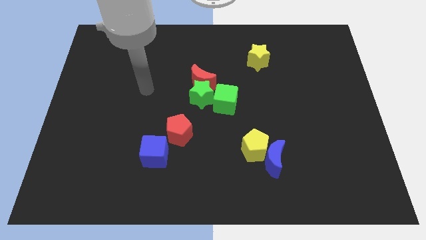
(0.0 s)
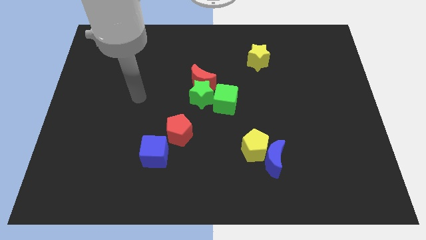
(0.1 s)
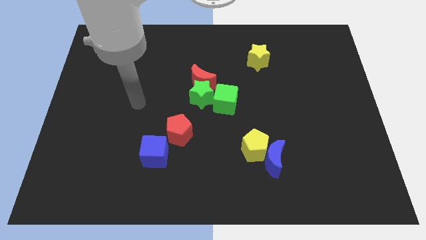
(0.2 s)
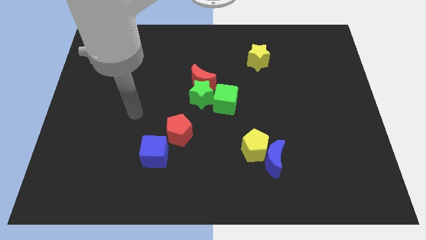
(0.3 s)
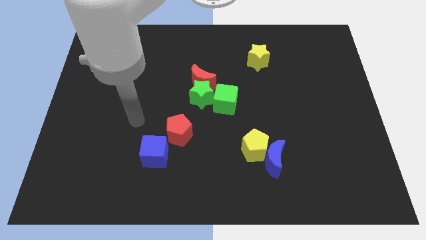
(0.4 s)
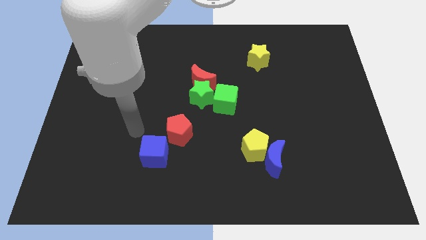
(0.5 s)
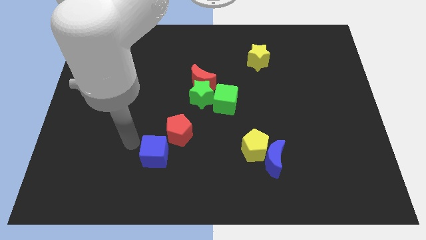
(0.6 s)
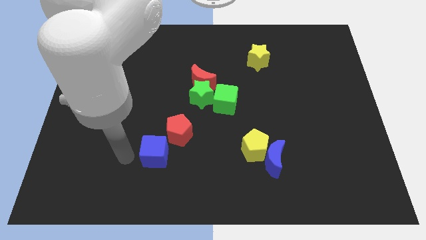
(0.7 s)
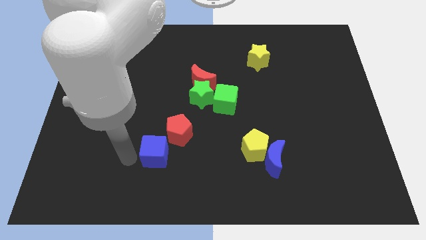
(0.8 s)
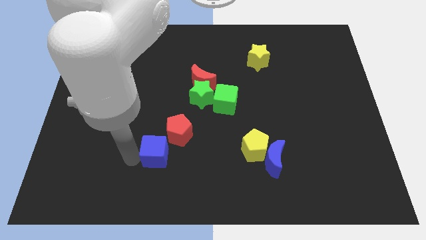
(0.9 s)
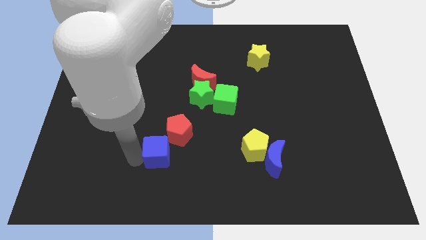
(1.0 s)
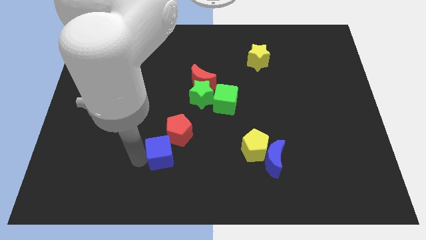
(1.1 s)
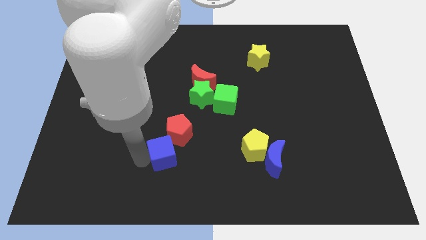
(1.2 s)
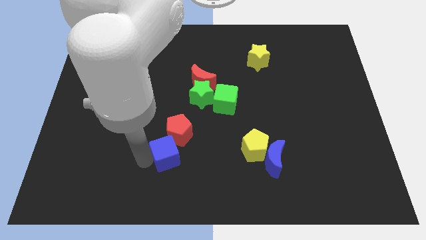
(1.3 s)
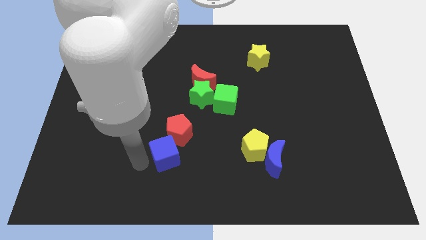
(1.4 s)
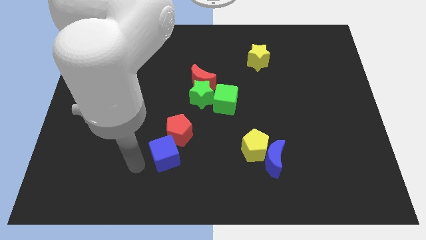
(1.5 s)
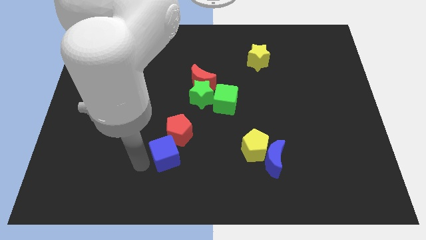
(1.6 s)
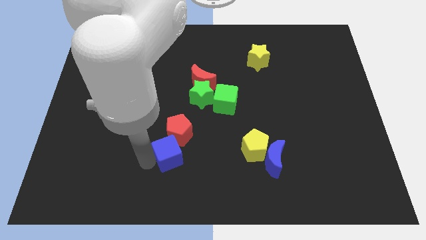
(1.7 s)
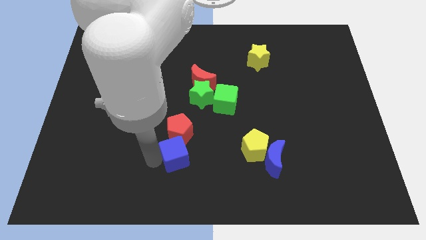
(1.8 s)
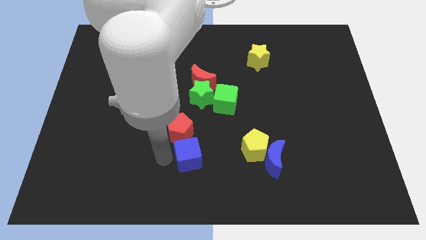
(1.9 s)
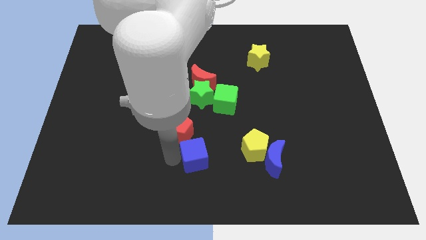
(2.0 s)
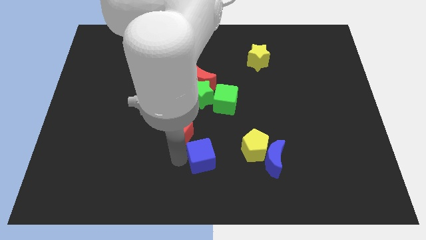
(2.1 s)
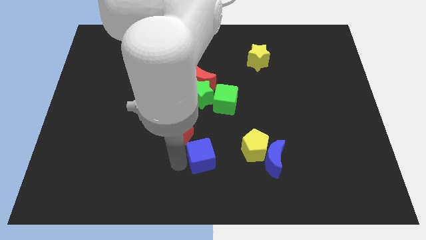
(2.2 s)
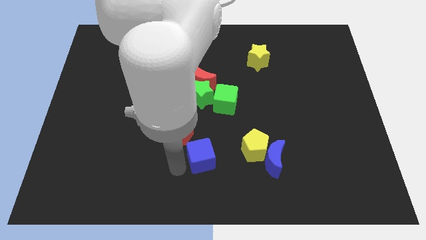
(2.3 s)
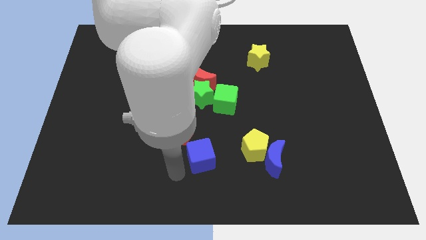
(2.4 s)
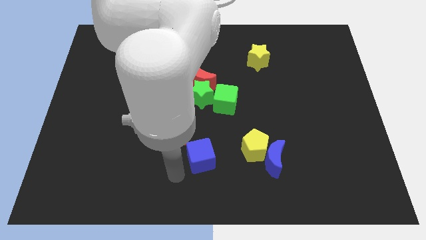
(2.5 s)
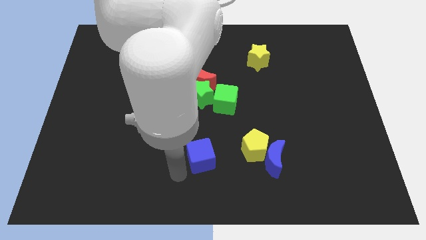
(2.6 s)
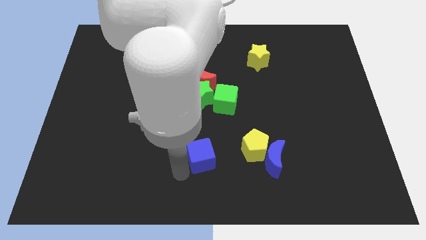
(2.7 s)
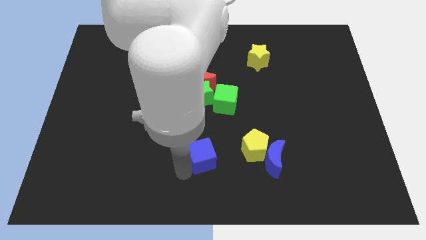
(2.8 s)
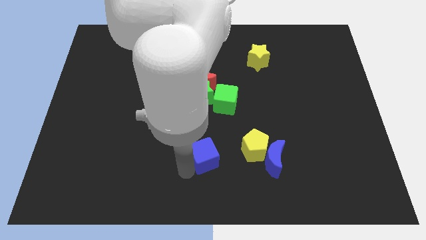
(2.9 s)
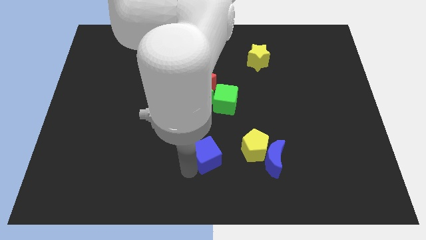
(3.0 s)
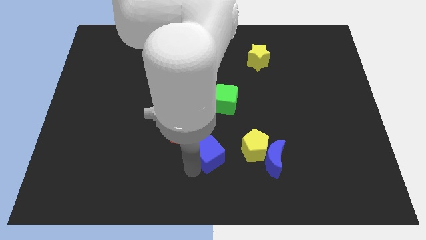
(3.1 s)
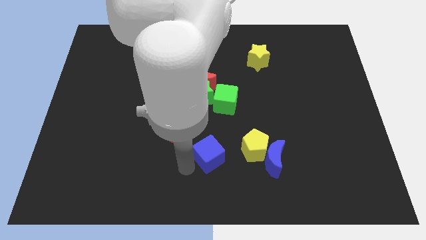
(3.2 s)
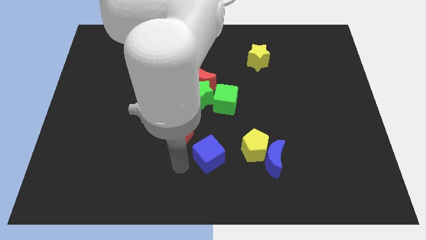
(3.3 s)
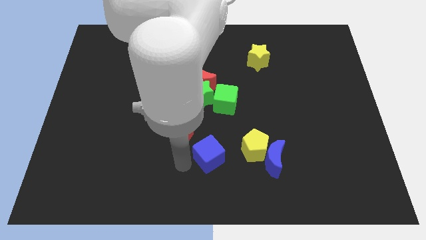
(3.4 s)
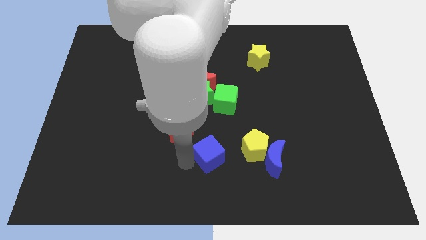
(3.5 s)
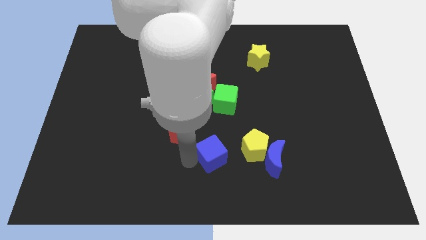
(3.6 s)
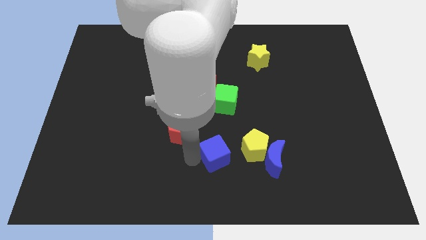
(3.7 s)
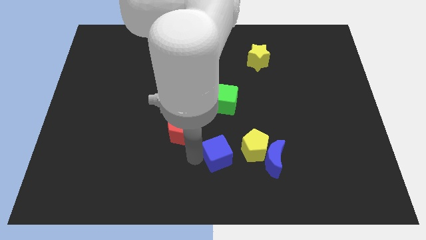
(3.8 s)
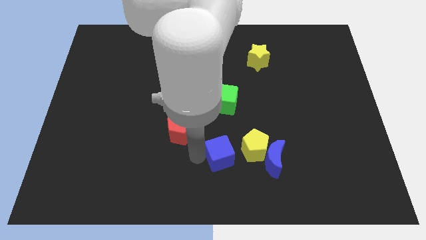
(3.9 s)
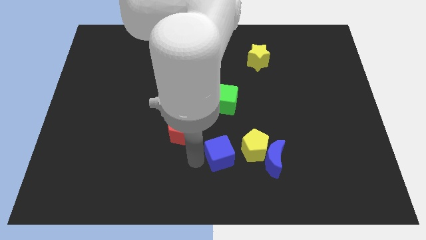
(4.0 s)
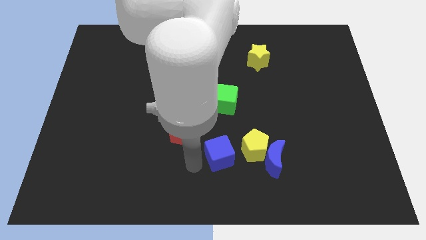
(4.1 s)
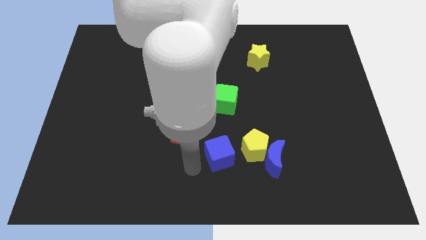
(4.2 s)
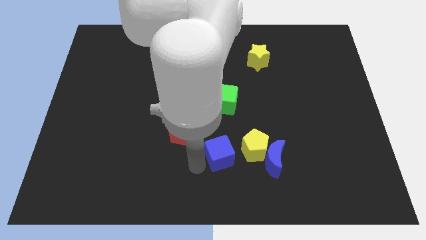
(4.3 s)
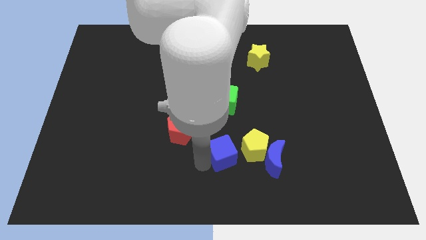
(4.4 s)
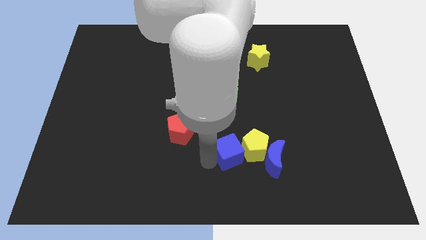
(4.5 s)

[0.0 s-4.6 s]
slide the blue cube next to the yellow pentagon

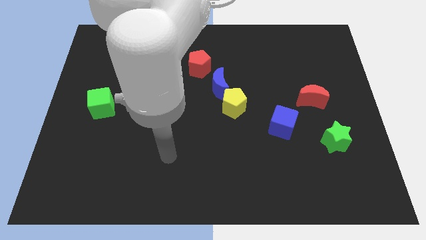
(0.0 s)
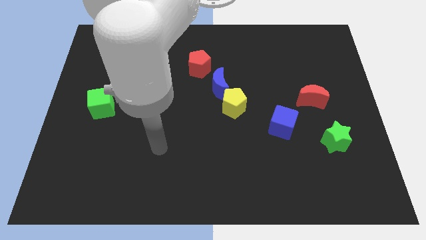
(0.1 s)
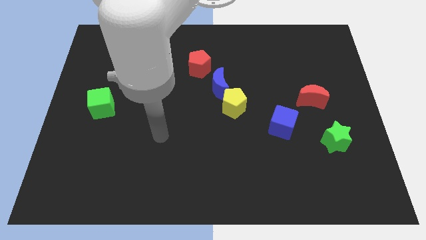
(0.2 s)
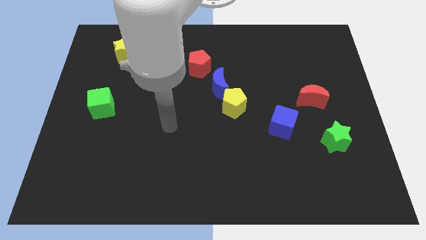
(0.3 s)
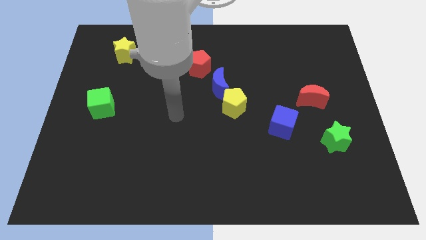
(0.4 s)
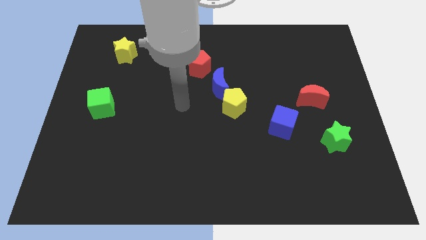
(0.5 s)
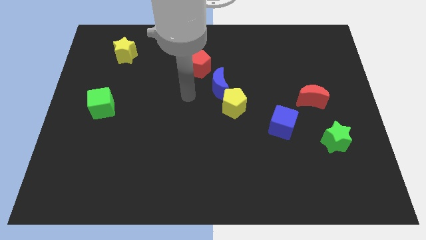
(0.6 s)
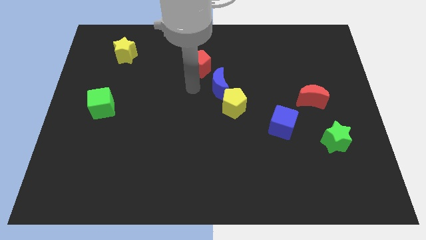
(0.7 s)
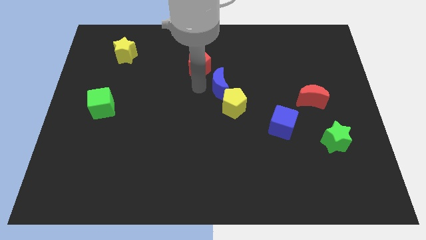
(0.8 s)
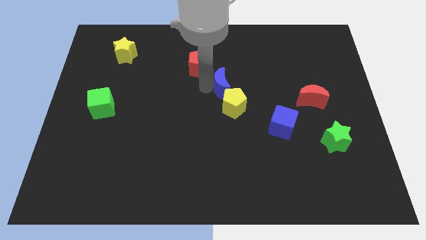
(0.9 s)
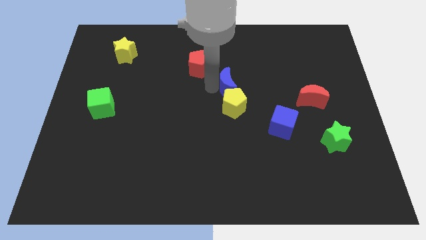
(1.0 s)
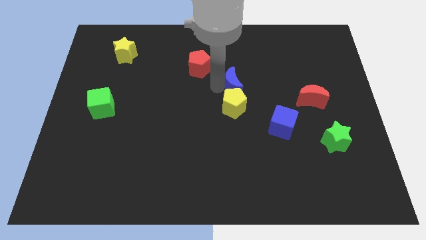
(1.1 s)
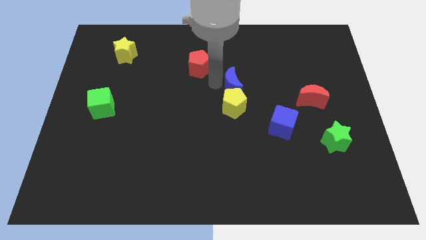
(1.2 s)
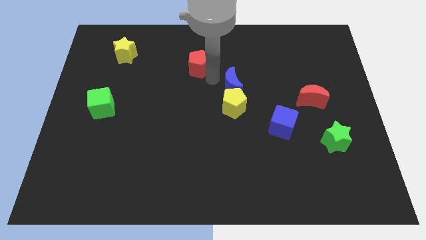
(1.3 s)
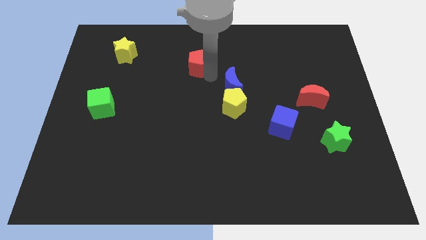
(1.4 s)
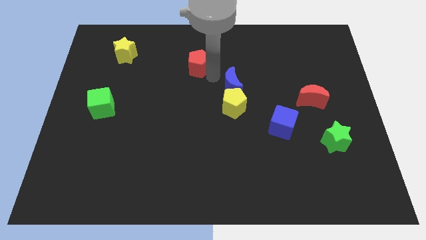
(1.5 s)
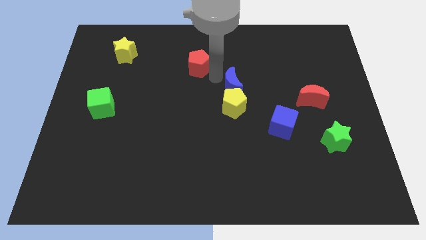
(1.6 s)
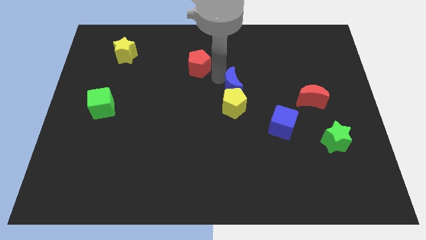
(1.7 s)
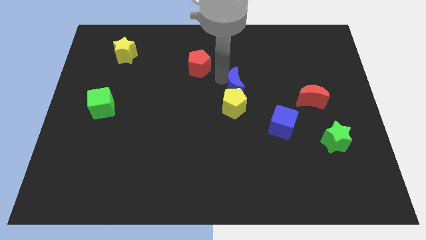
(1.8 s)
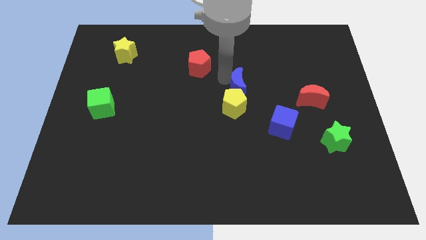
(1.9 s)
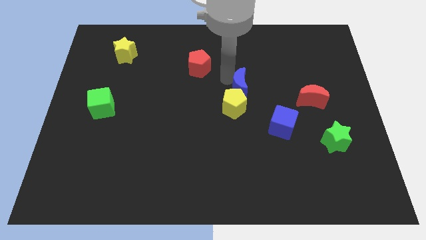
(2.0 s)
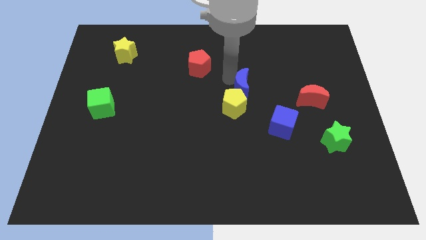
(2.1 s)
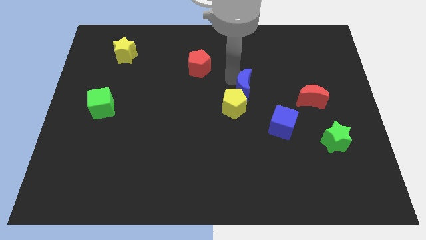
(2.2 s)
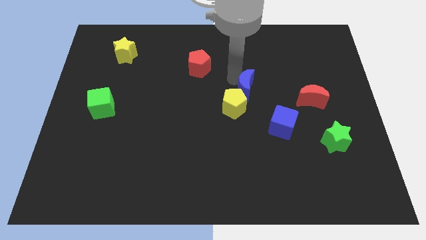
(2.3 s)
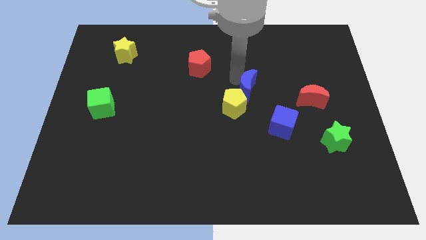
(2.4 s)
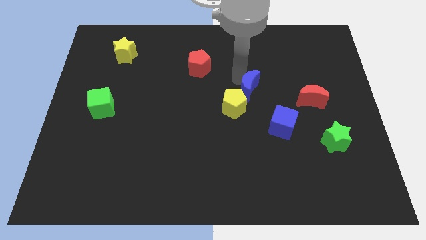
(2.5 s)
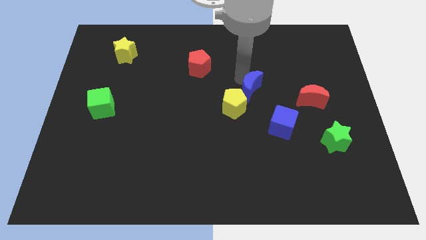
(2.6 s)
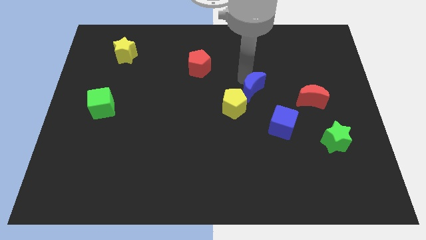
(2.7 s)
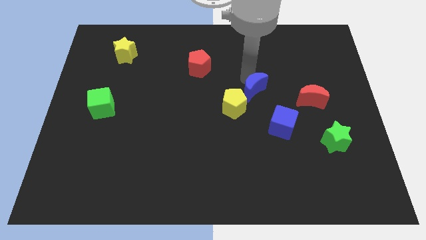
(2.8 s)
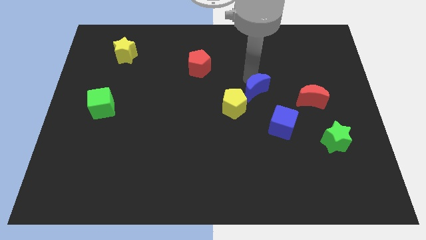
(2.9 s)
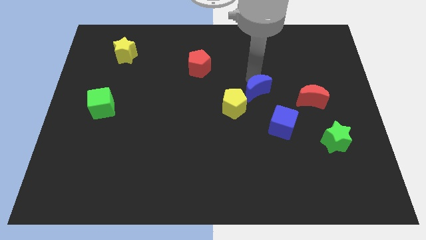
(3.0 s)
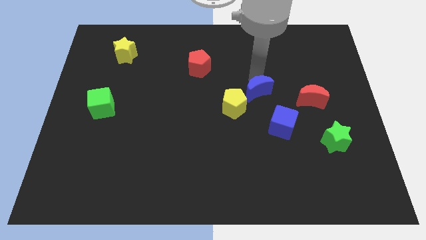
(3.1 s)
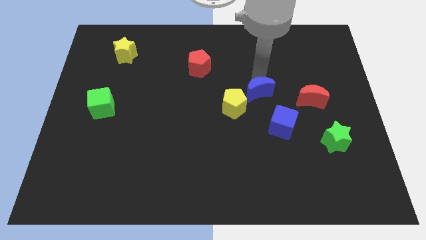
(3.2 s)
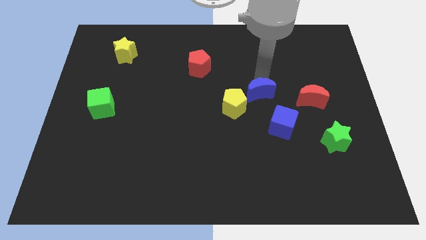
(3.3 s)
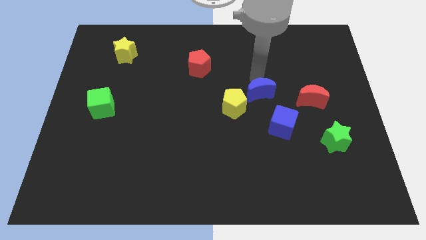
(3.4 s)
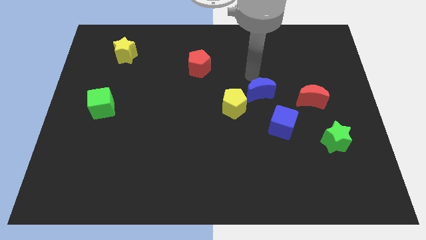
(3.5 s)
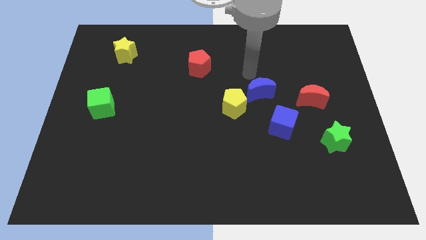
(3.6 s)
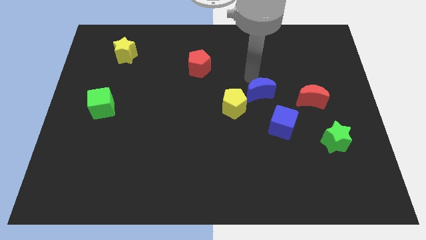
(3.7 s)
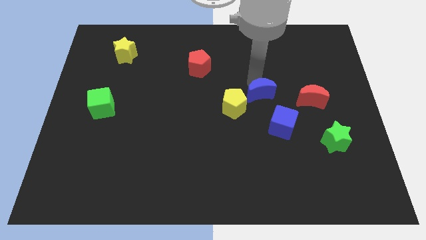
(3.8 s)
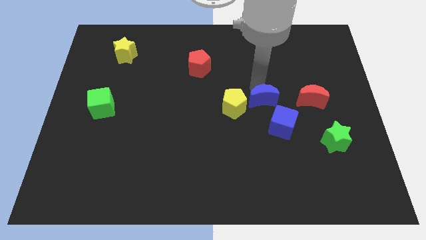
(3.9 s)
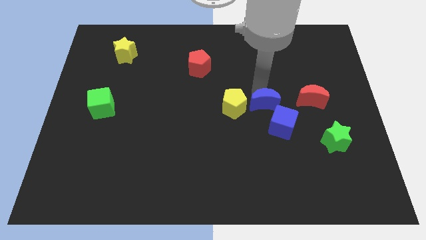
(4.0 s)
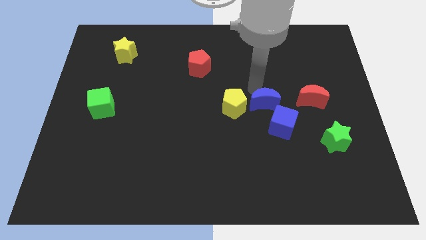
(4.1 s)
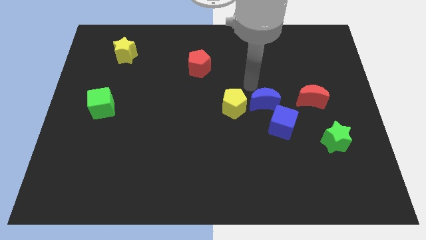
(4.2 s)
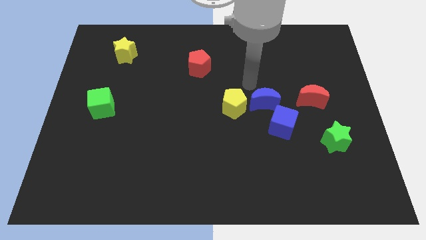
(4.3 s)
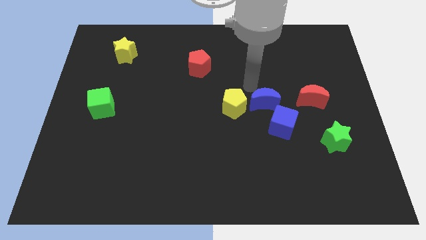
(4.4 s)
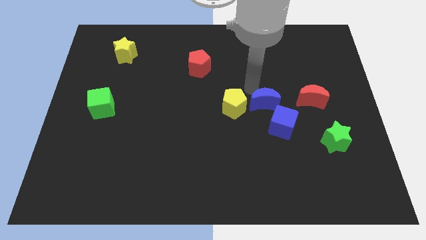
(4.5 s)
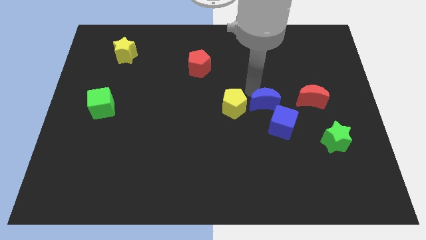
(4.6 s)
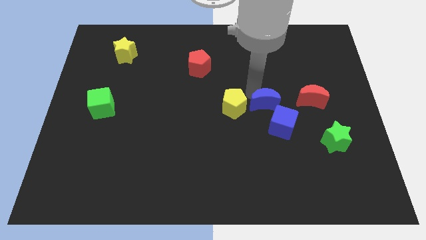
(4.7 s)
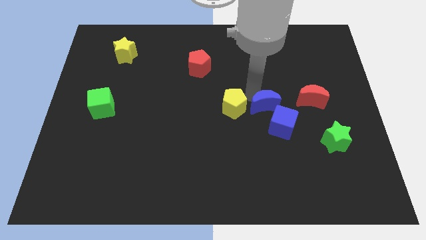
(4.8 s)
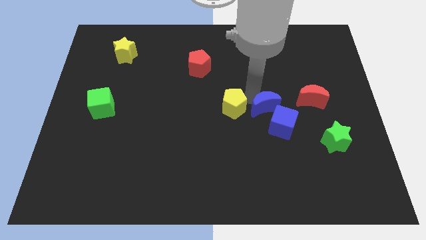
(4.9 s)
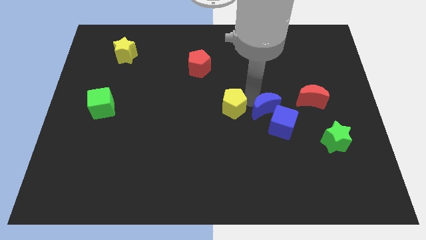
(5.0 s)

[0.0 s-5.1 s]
put the blue moon towards the blue cube
